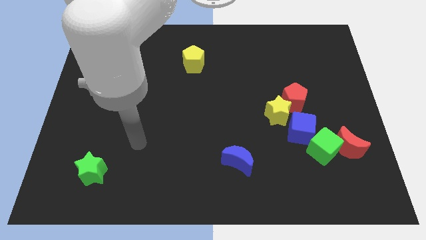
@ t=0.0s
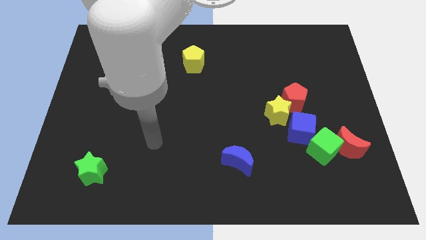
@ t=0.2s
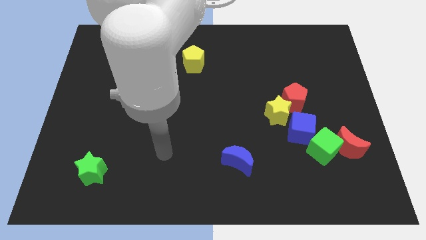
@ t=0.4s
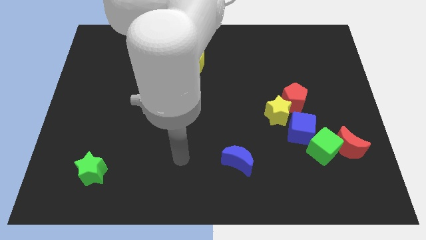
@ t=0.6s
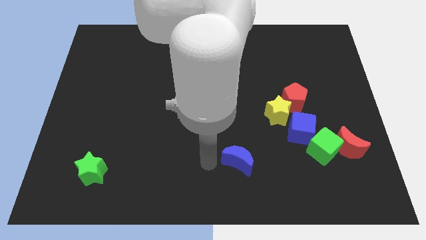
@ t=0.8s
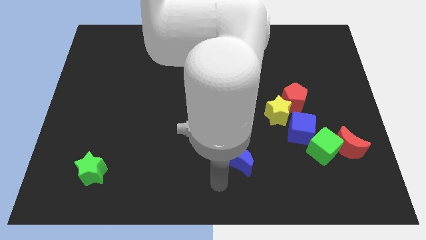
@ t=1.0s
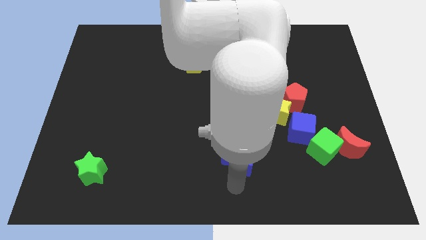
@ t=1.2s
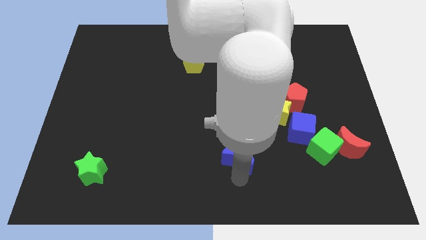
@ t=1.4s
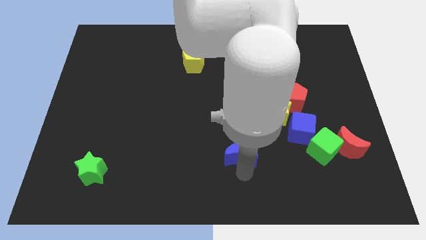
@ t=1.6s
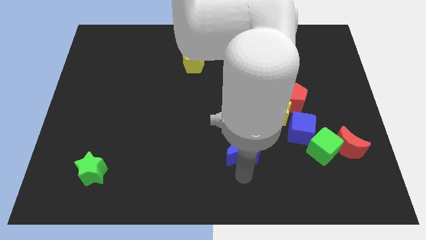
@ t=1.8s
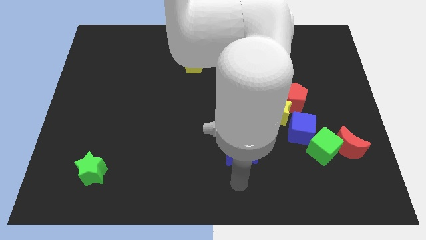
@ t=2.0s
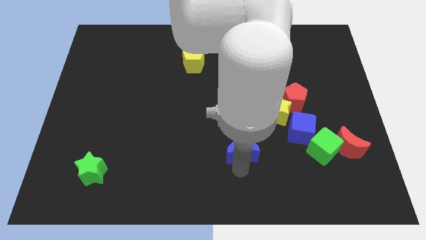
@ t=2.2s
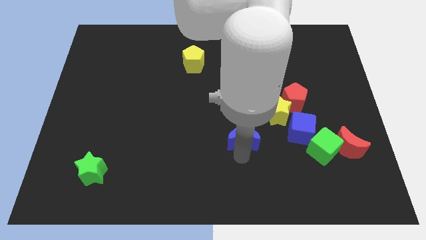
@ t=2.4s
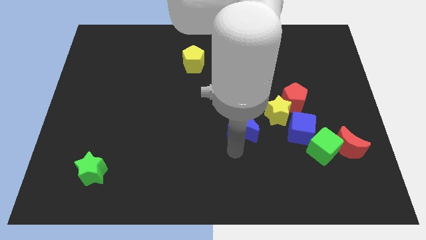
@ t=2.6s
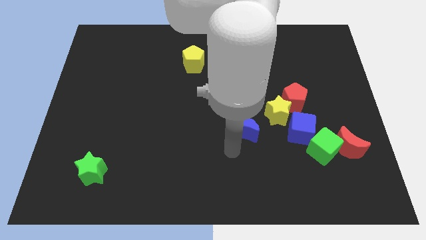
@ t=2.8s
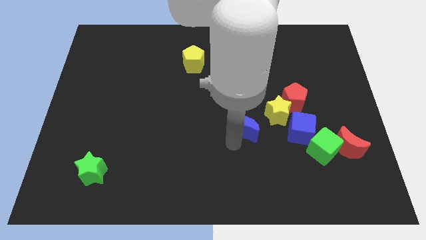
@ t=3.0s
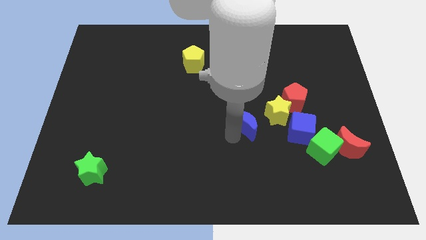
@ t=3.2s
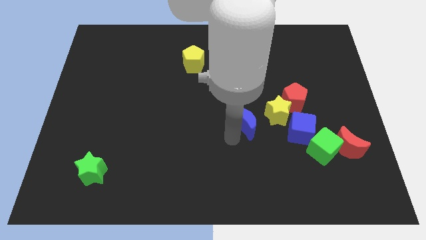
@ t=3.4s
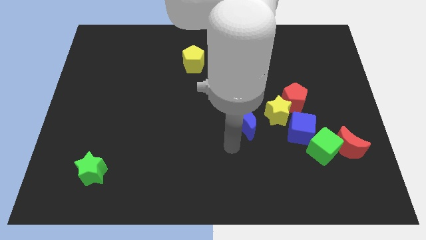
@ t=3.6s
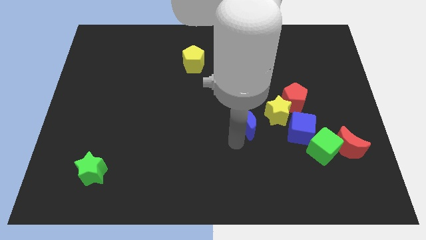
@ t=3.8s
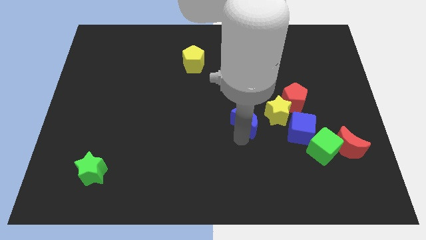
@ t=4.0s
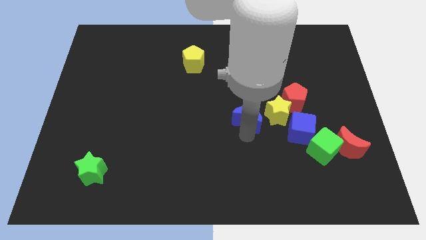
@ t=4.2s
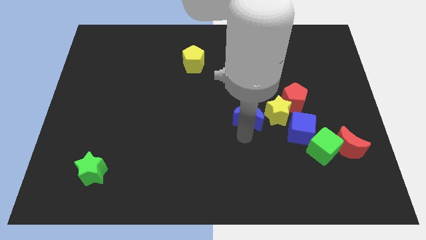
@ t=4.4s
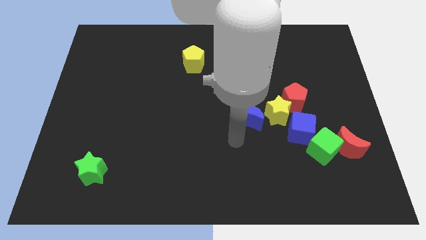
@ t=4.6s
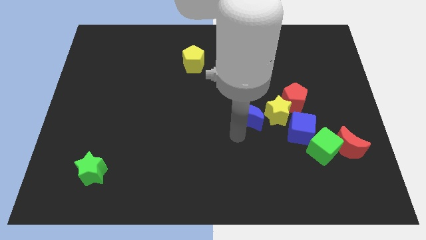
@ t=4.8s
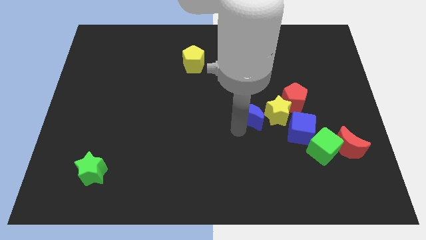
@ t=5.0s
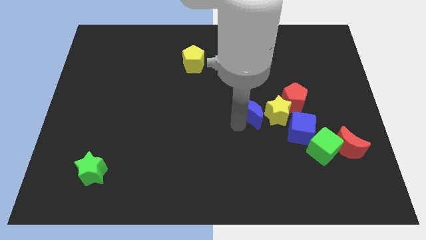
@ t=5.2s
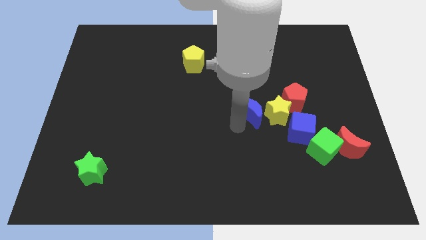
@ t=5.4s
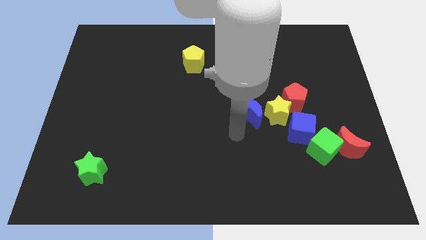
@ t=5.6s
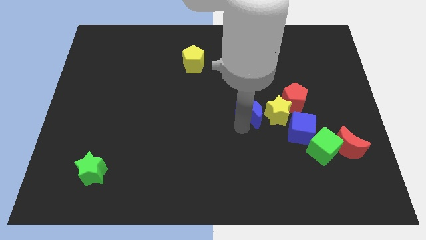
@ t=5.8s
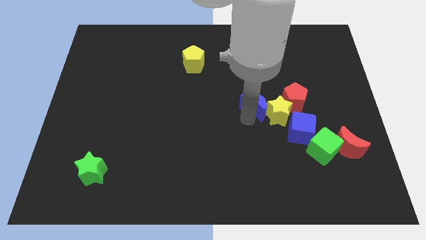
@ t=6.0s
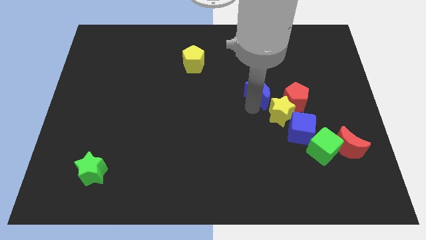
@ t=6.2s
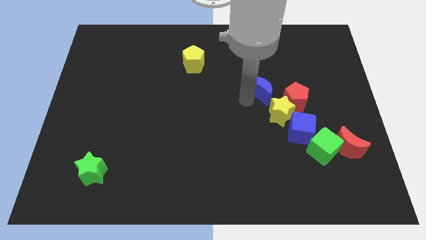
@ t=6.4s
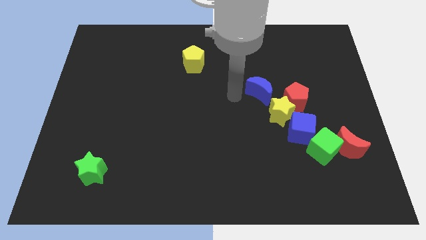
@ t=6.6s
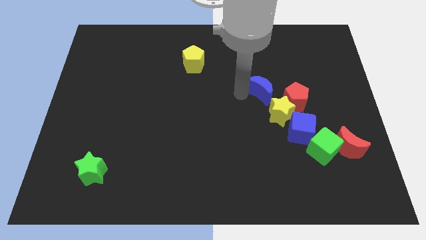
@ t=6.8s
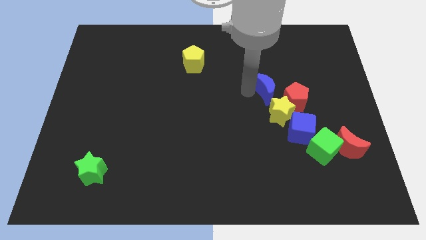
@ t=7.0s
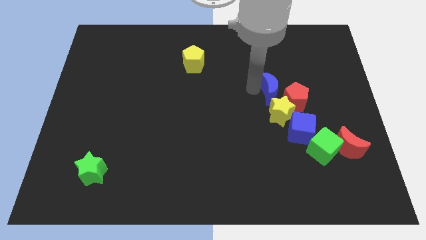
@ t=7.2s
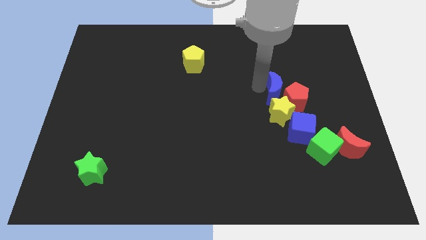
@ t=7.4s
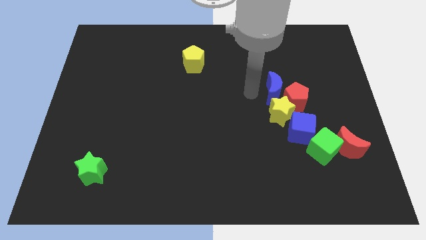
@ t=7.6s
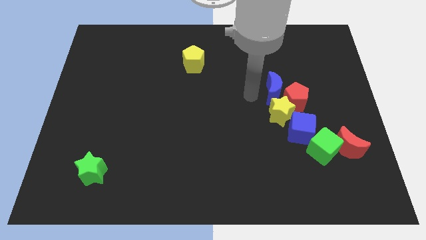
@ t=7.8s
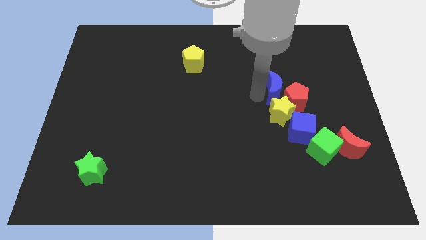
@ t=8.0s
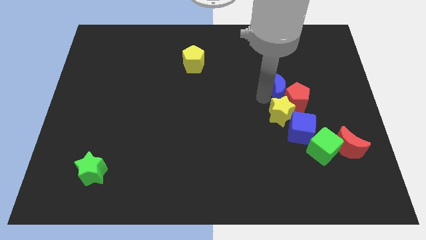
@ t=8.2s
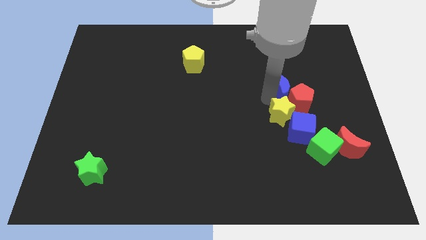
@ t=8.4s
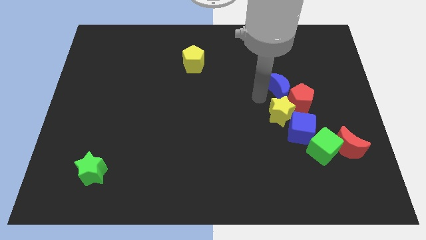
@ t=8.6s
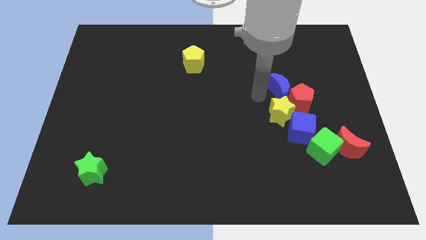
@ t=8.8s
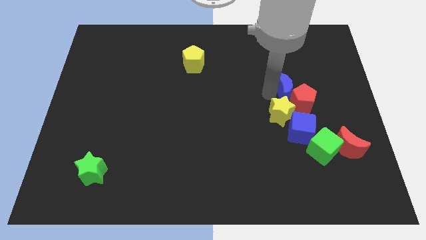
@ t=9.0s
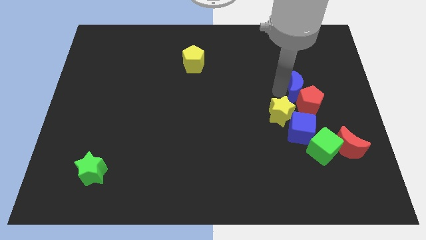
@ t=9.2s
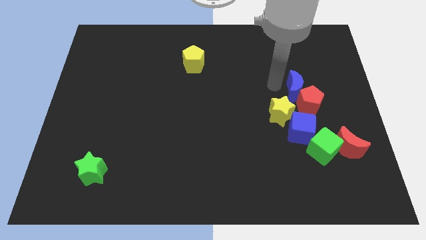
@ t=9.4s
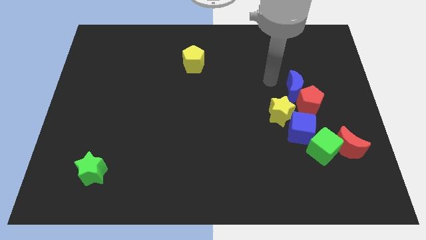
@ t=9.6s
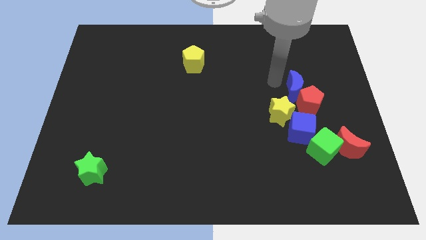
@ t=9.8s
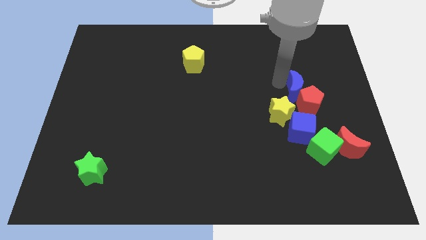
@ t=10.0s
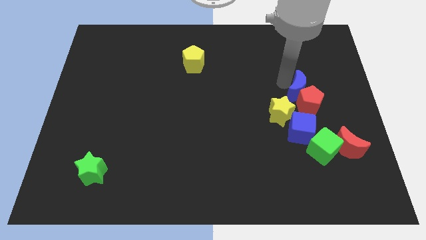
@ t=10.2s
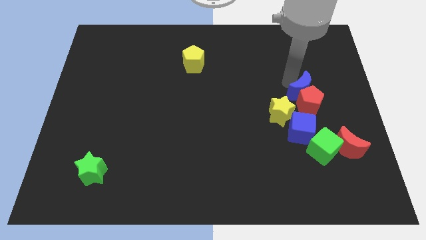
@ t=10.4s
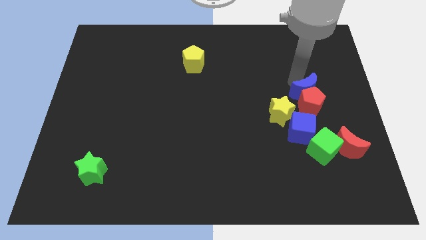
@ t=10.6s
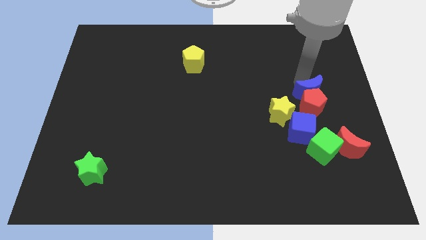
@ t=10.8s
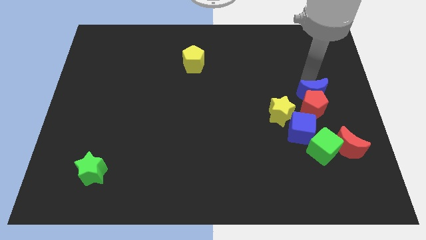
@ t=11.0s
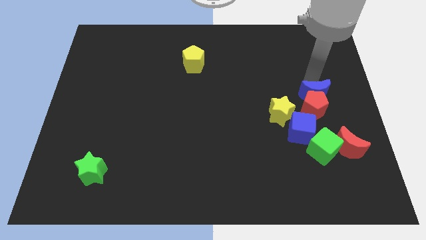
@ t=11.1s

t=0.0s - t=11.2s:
put the blue moon to the top right of the blue cube

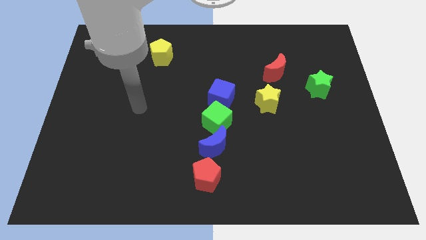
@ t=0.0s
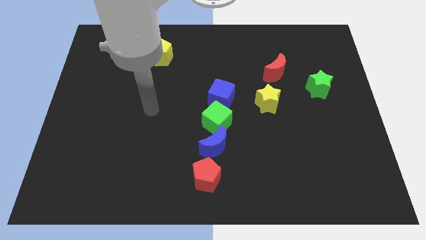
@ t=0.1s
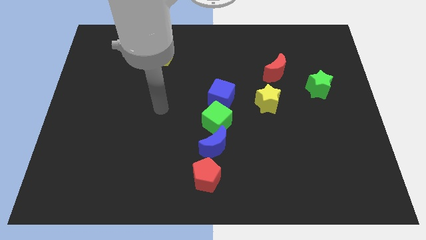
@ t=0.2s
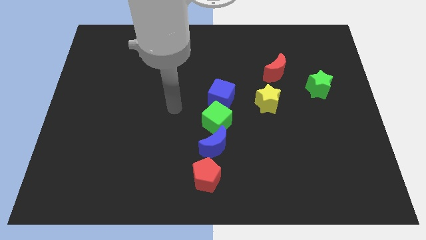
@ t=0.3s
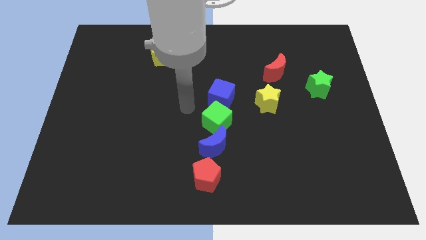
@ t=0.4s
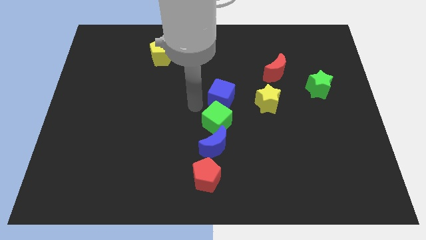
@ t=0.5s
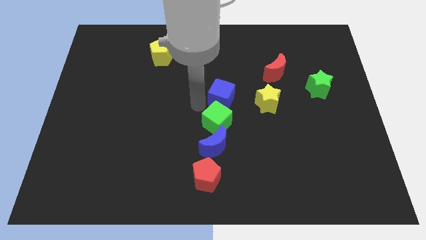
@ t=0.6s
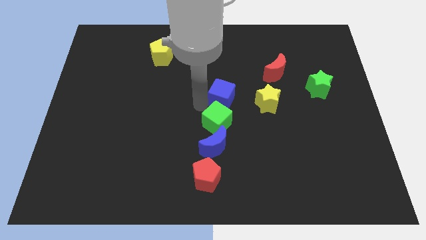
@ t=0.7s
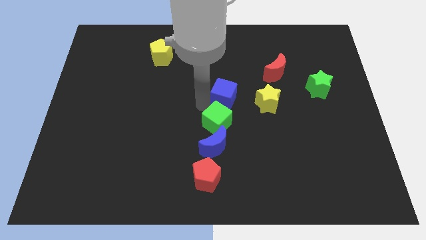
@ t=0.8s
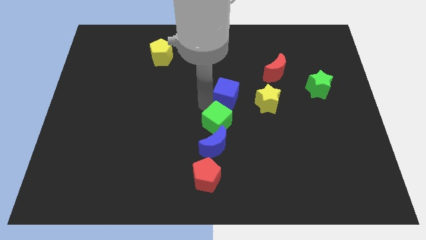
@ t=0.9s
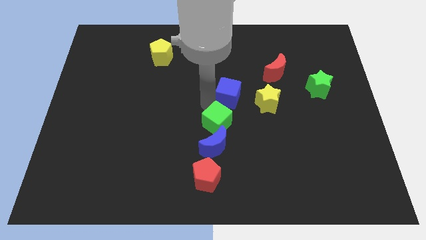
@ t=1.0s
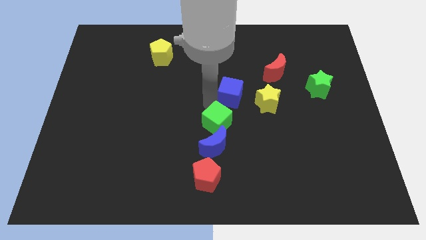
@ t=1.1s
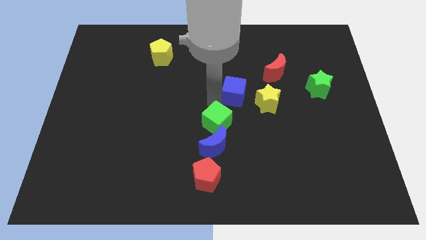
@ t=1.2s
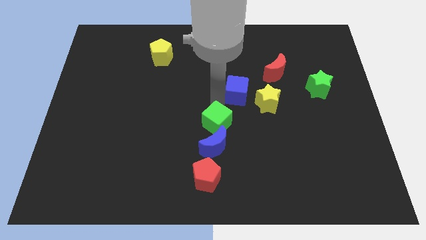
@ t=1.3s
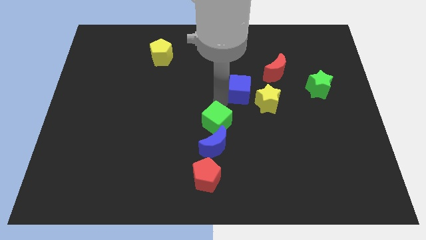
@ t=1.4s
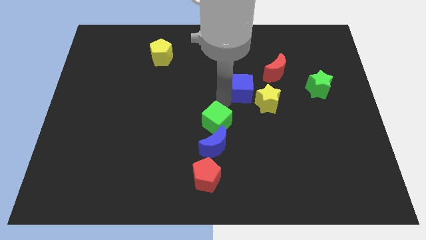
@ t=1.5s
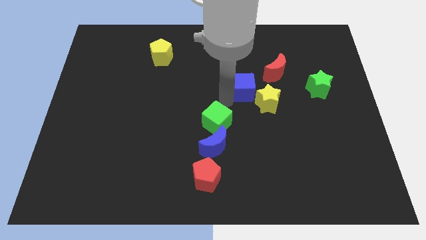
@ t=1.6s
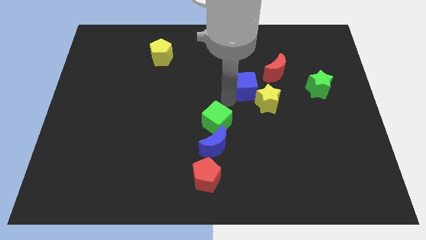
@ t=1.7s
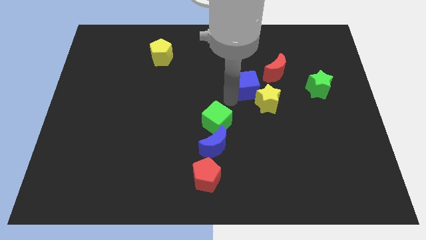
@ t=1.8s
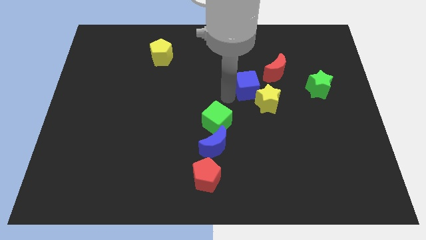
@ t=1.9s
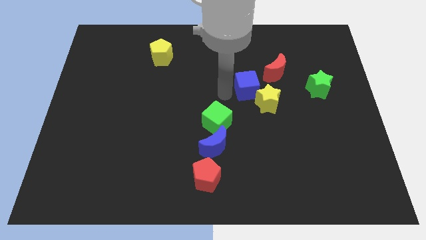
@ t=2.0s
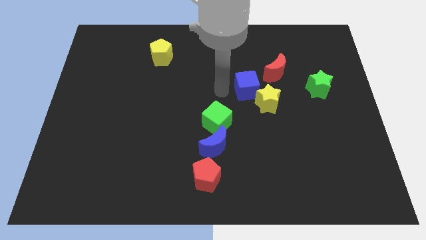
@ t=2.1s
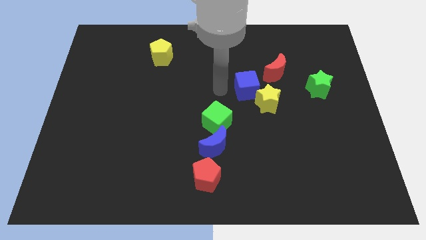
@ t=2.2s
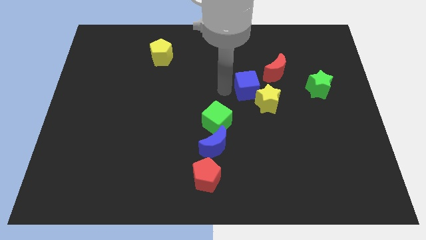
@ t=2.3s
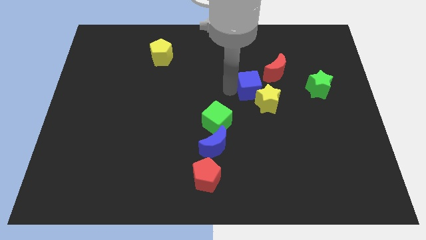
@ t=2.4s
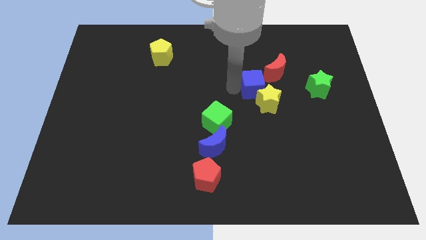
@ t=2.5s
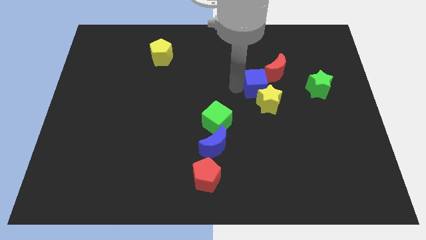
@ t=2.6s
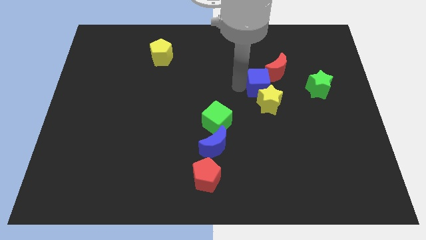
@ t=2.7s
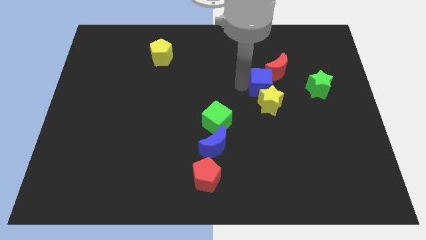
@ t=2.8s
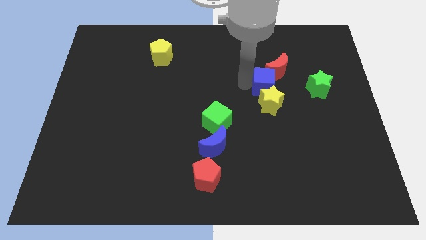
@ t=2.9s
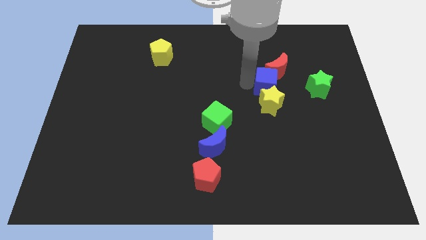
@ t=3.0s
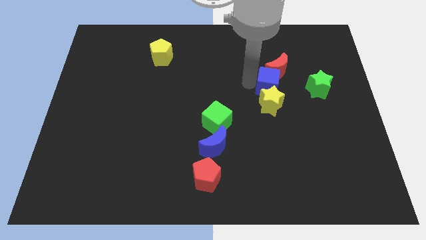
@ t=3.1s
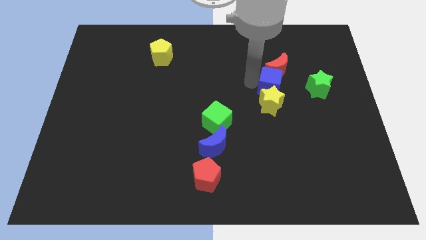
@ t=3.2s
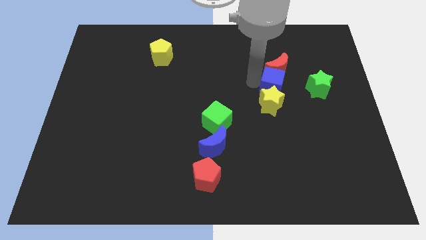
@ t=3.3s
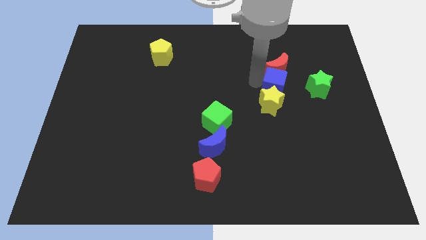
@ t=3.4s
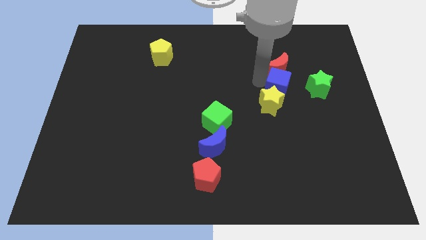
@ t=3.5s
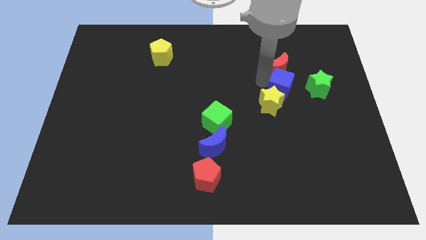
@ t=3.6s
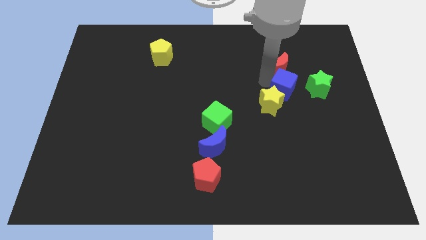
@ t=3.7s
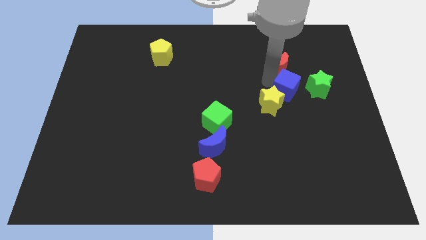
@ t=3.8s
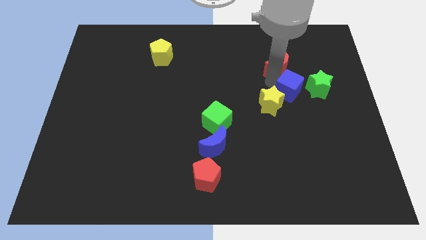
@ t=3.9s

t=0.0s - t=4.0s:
push the blue cube diagonally down and to the left of the green star
